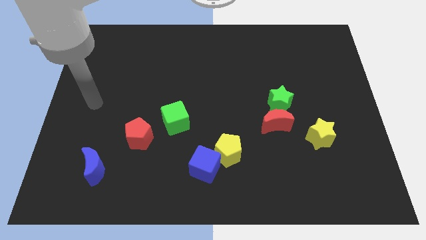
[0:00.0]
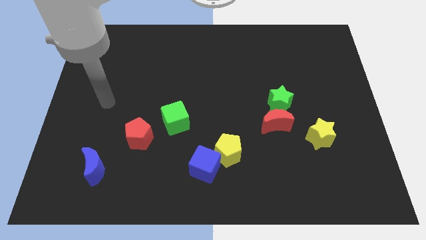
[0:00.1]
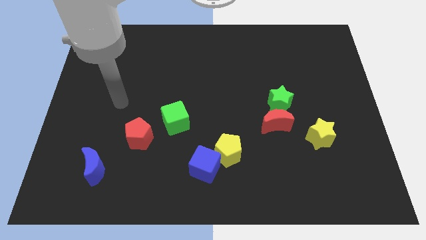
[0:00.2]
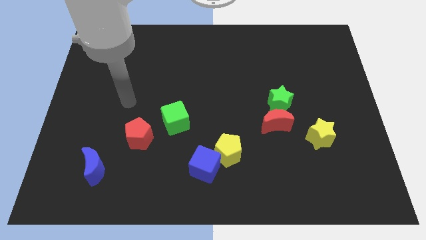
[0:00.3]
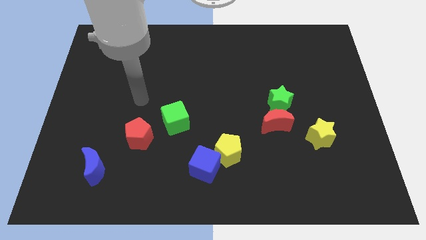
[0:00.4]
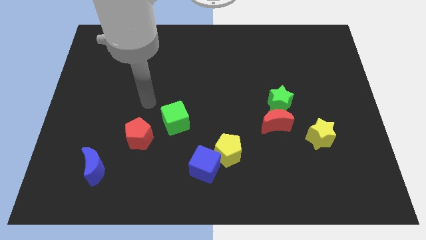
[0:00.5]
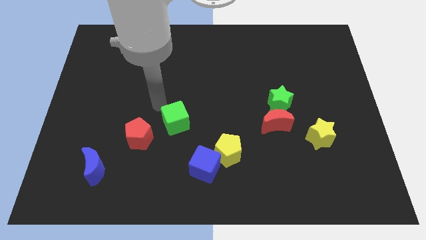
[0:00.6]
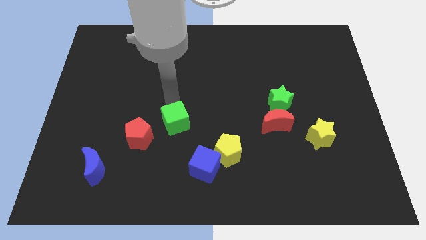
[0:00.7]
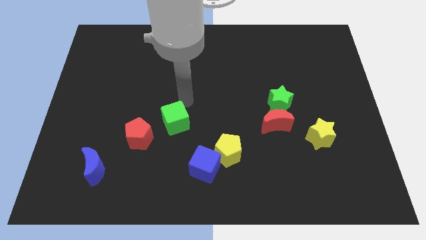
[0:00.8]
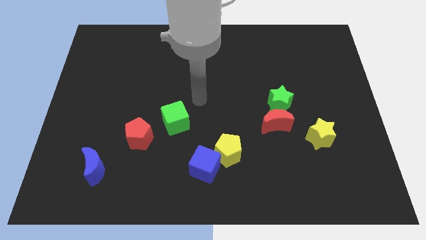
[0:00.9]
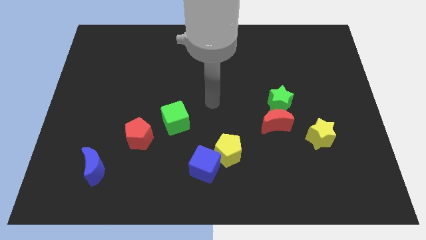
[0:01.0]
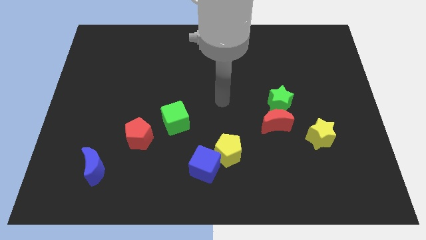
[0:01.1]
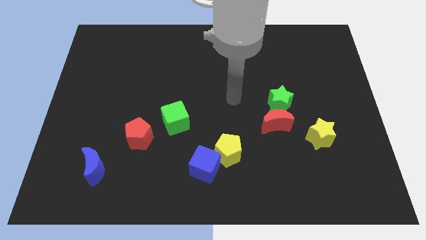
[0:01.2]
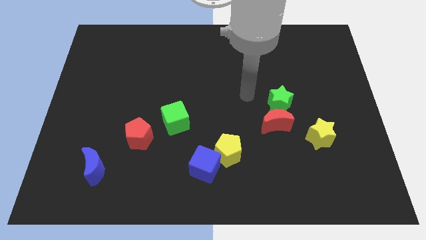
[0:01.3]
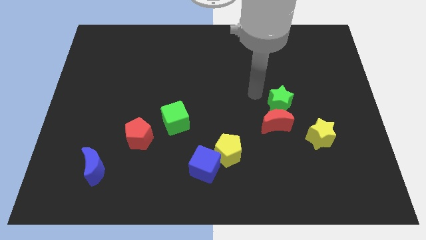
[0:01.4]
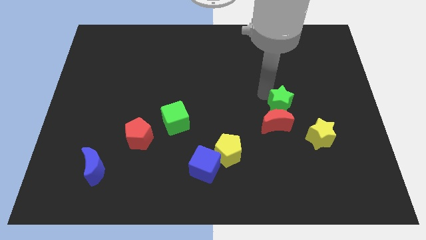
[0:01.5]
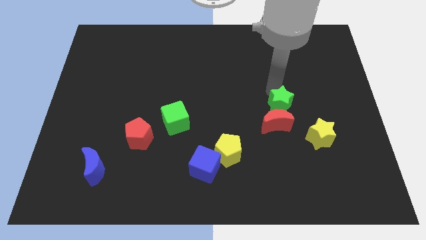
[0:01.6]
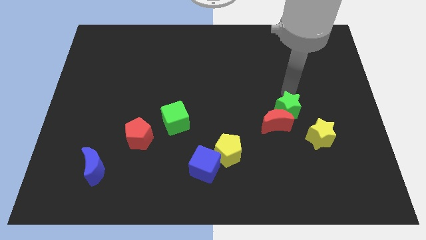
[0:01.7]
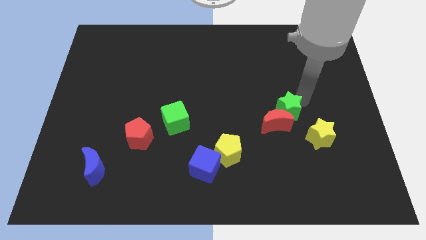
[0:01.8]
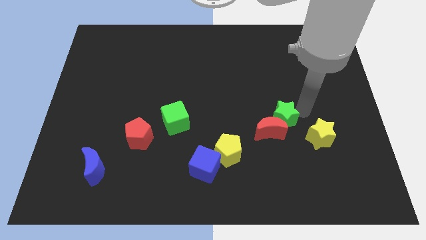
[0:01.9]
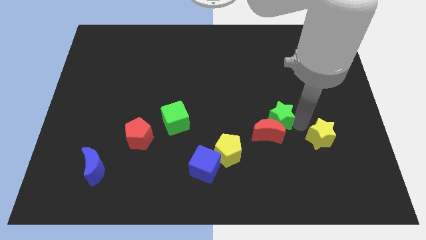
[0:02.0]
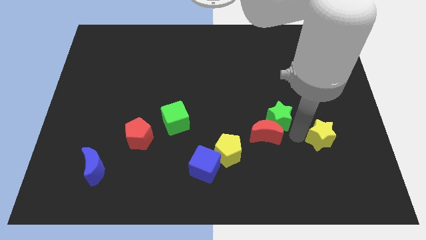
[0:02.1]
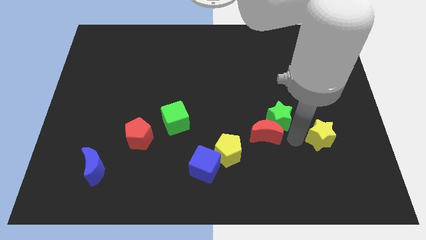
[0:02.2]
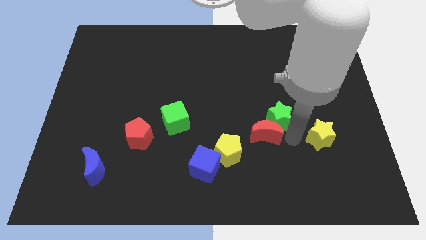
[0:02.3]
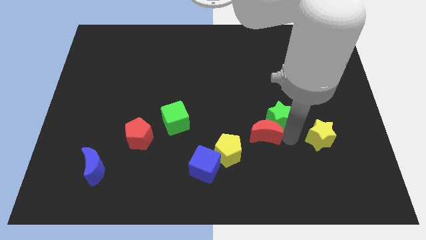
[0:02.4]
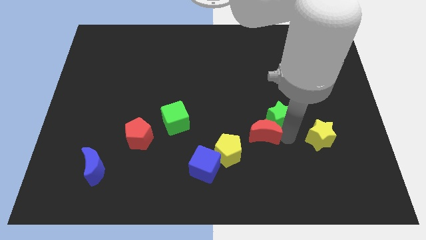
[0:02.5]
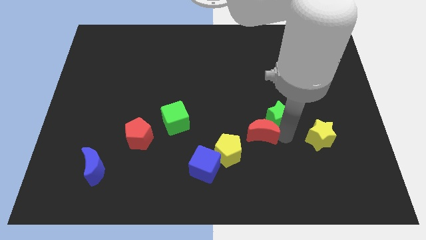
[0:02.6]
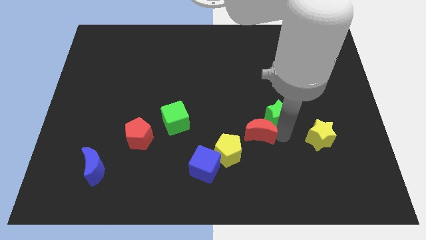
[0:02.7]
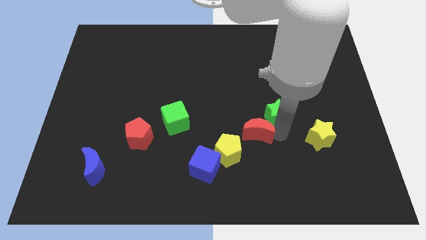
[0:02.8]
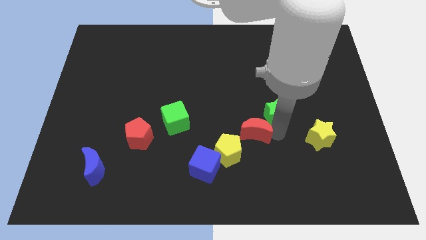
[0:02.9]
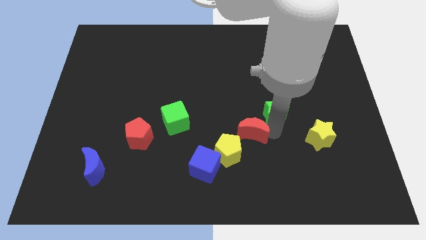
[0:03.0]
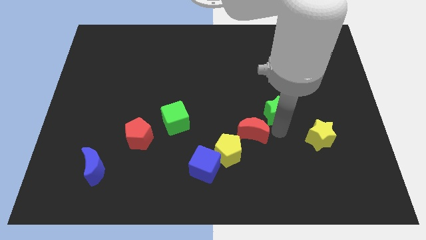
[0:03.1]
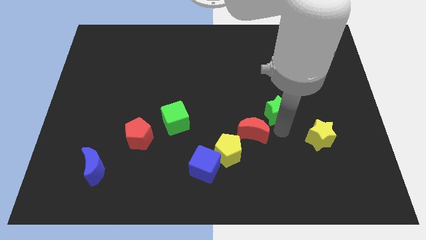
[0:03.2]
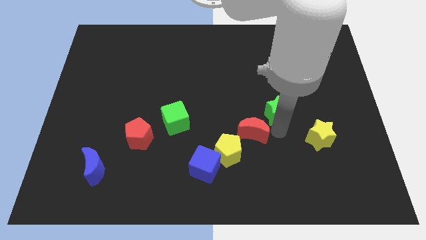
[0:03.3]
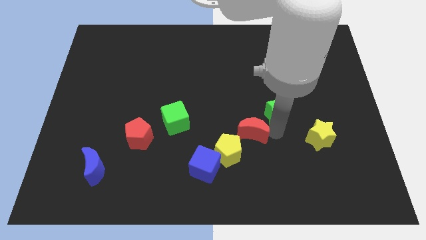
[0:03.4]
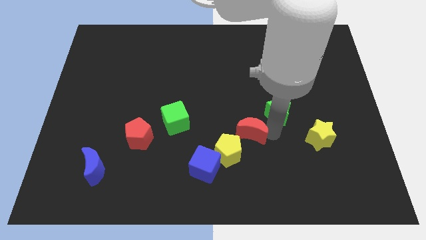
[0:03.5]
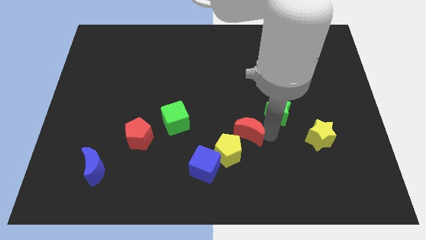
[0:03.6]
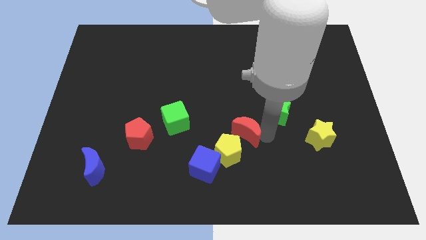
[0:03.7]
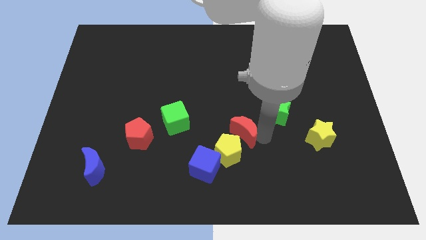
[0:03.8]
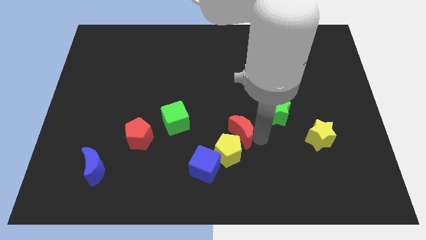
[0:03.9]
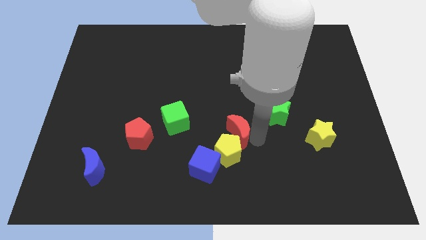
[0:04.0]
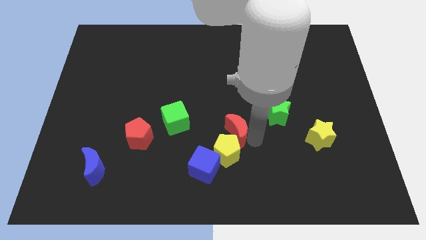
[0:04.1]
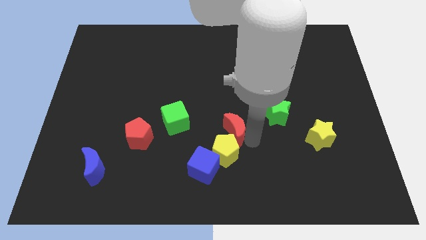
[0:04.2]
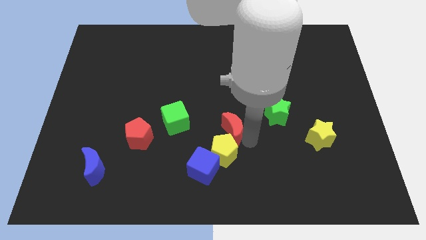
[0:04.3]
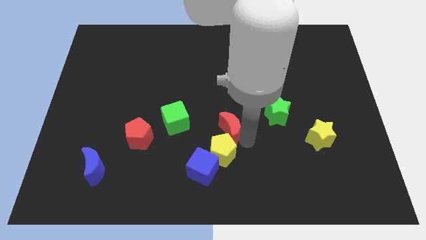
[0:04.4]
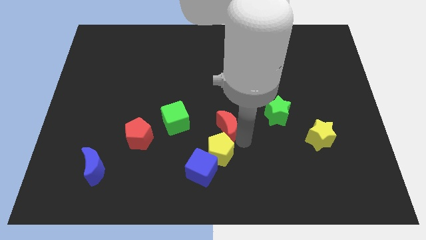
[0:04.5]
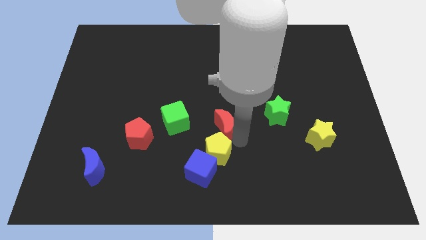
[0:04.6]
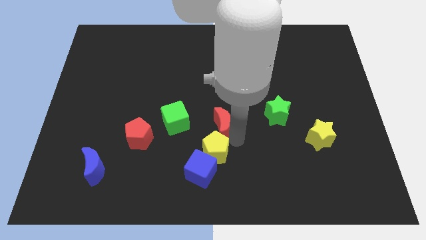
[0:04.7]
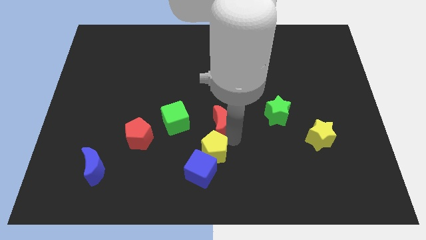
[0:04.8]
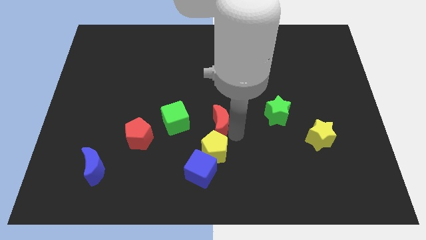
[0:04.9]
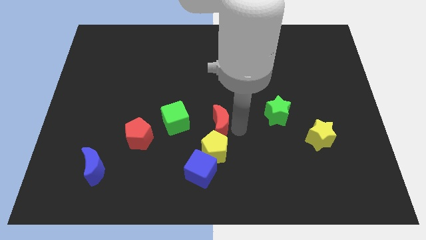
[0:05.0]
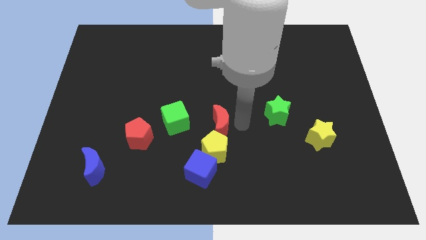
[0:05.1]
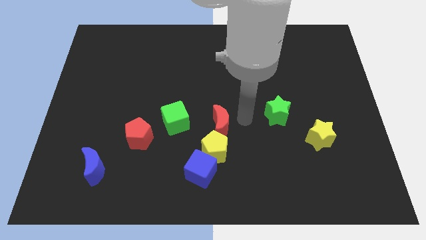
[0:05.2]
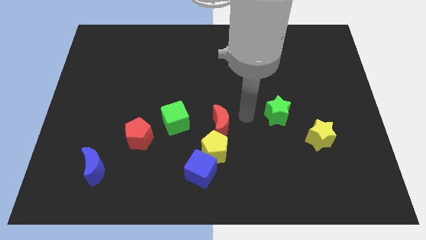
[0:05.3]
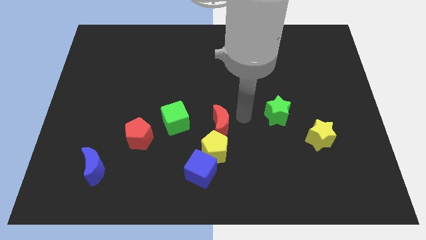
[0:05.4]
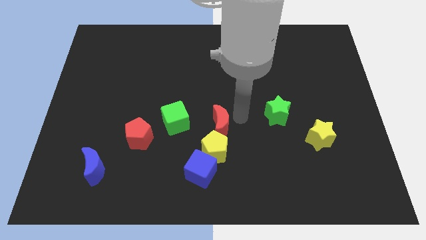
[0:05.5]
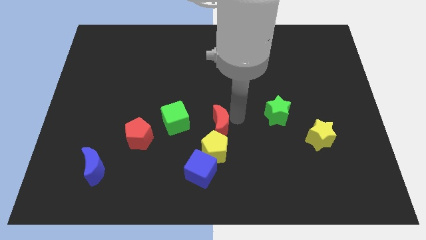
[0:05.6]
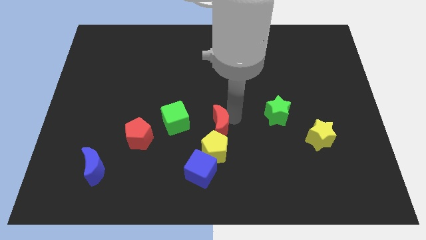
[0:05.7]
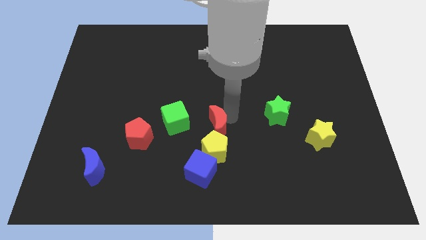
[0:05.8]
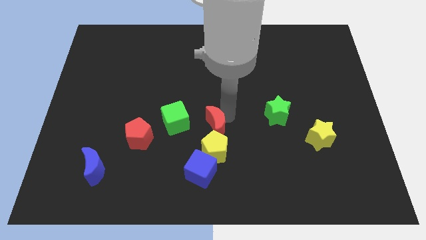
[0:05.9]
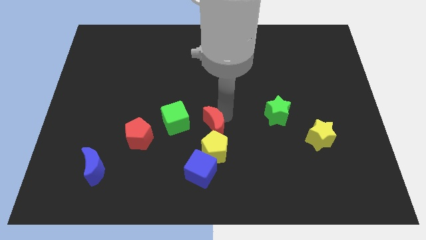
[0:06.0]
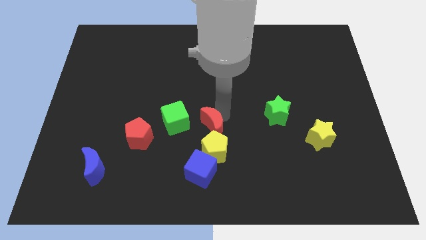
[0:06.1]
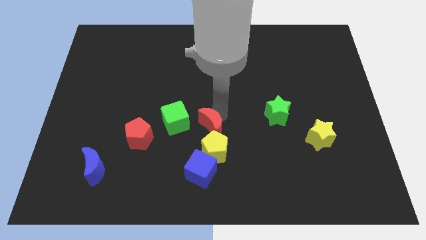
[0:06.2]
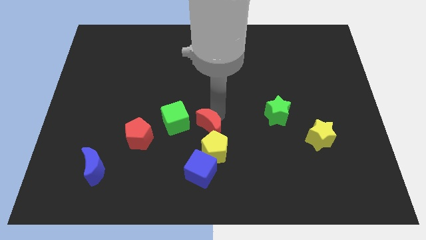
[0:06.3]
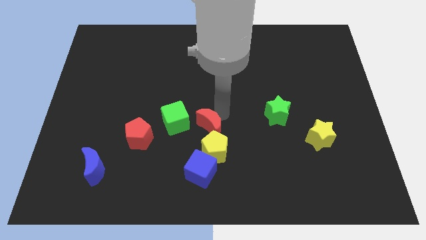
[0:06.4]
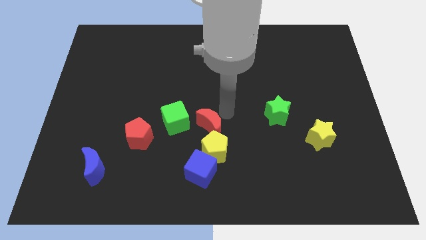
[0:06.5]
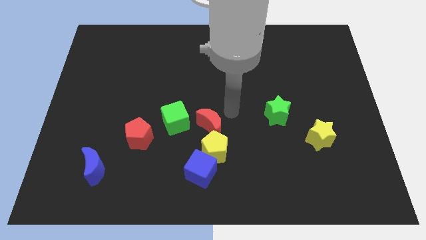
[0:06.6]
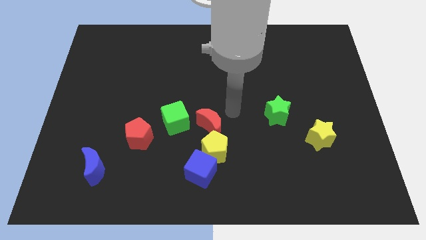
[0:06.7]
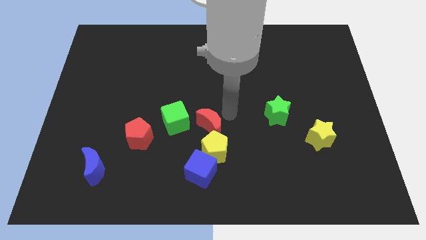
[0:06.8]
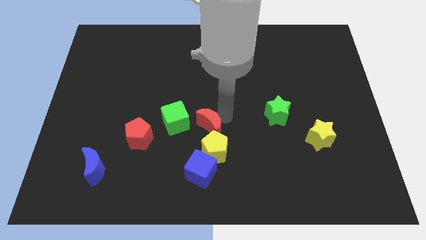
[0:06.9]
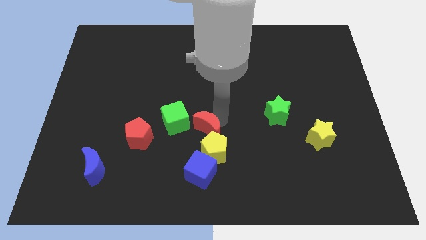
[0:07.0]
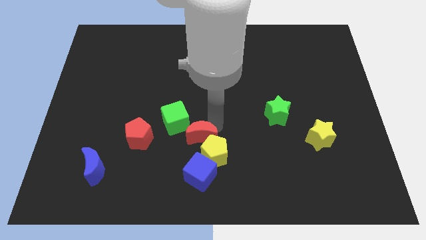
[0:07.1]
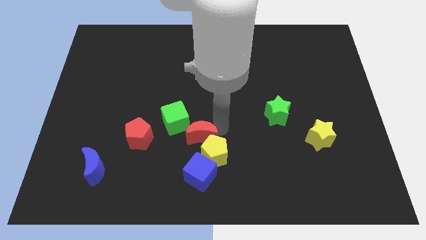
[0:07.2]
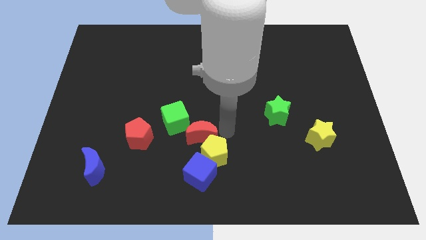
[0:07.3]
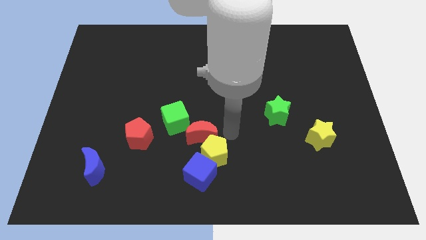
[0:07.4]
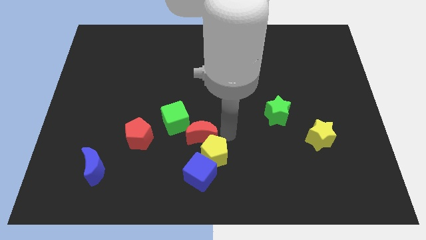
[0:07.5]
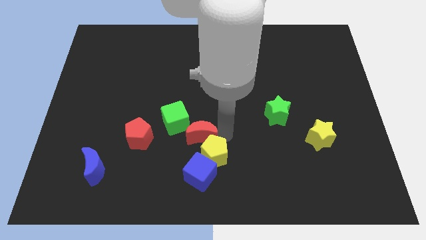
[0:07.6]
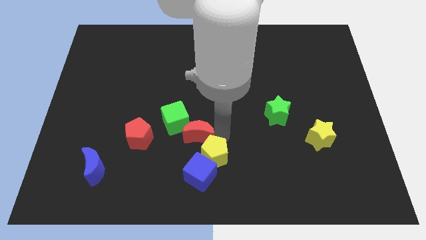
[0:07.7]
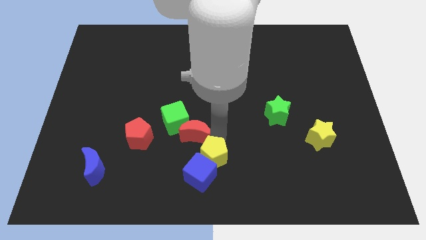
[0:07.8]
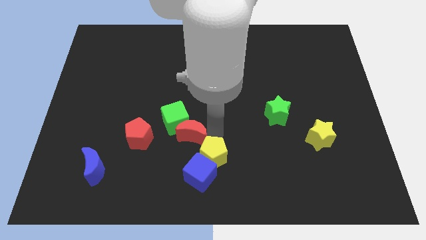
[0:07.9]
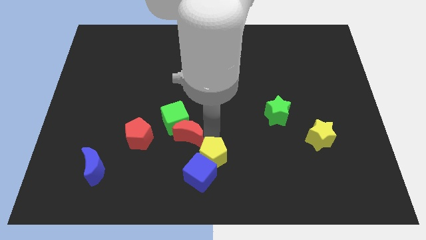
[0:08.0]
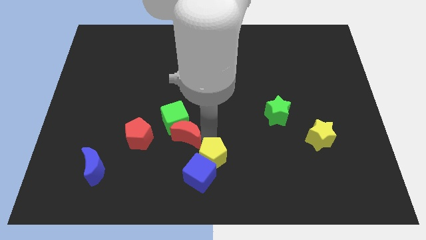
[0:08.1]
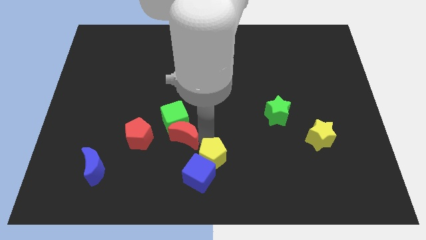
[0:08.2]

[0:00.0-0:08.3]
push the red moon to the left

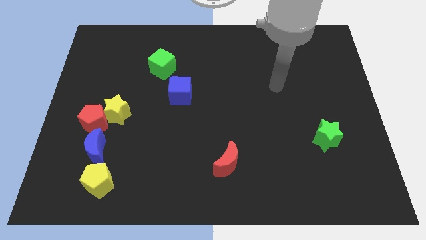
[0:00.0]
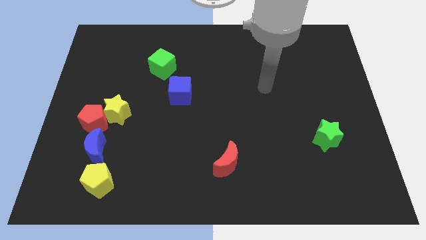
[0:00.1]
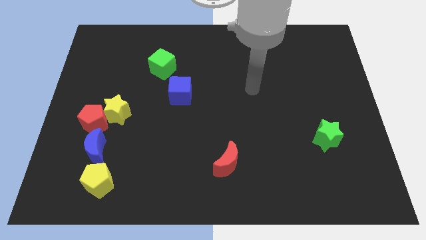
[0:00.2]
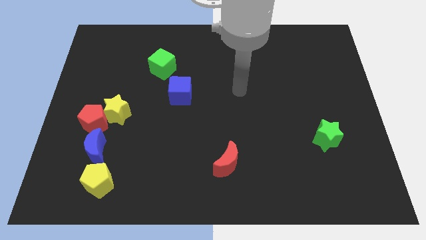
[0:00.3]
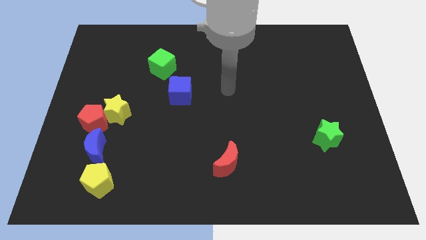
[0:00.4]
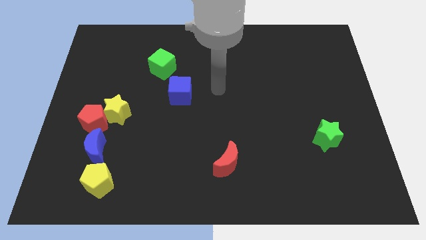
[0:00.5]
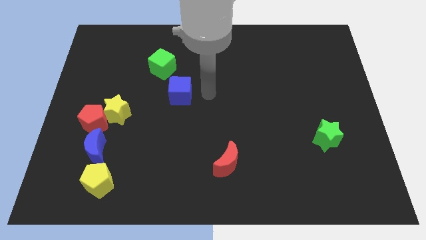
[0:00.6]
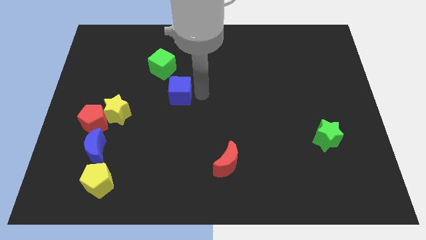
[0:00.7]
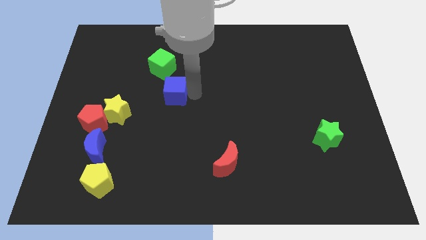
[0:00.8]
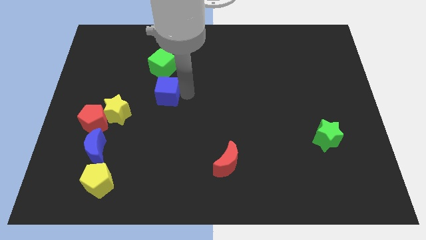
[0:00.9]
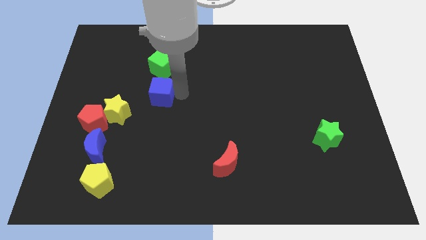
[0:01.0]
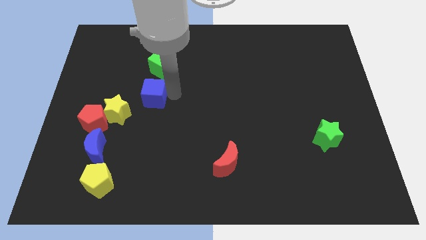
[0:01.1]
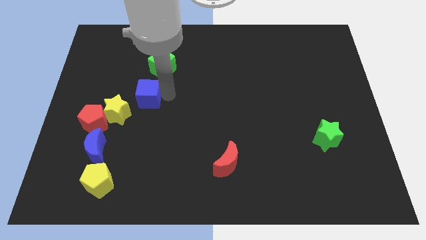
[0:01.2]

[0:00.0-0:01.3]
slightly slide the blue cube to the left
